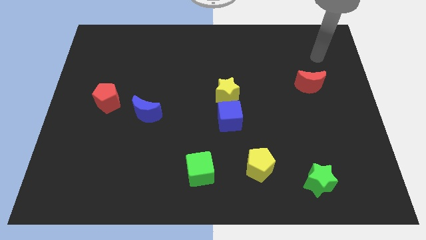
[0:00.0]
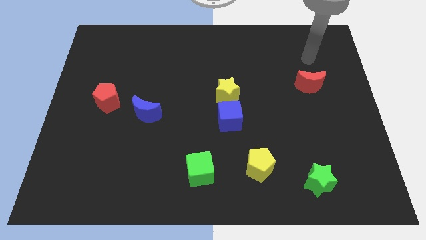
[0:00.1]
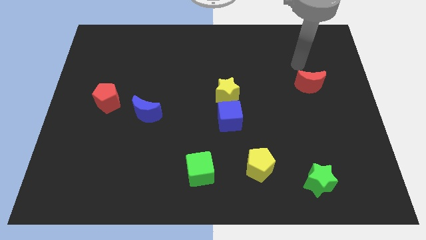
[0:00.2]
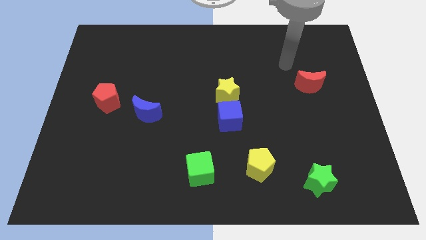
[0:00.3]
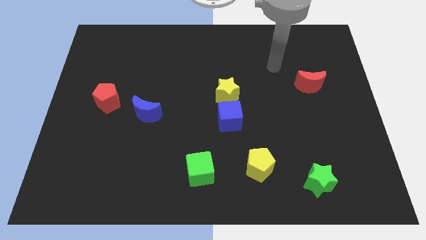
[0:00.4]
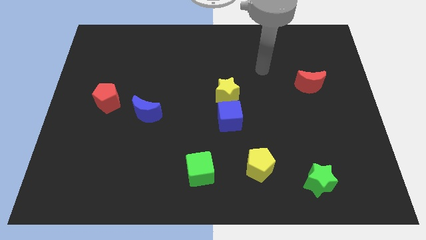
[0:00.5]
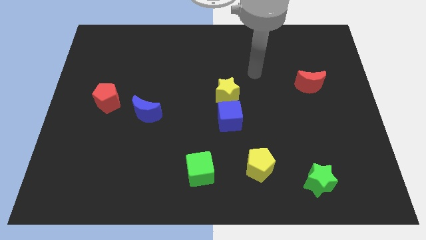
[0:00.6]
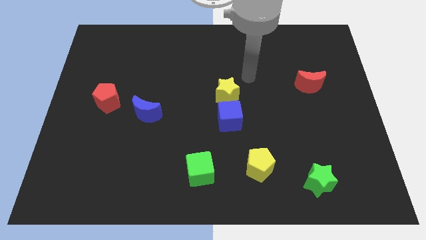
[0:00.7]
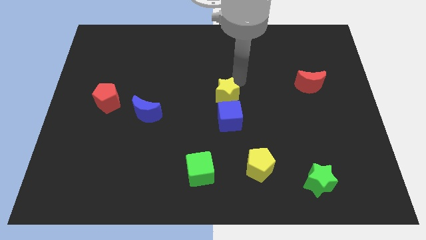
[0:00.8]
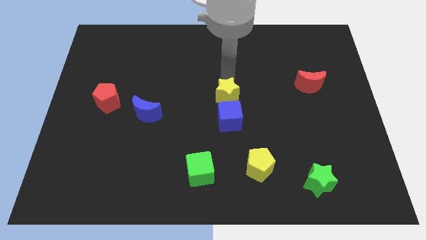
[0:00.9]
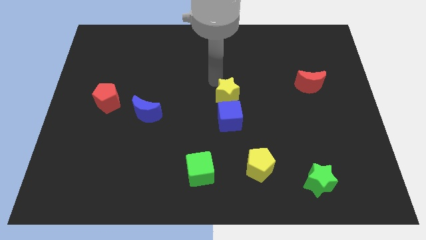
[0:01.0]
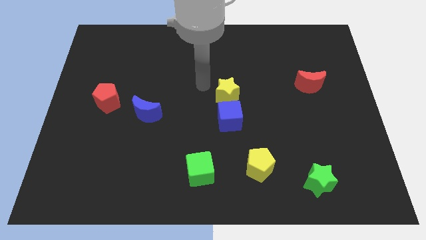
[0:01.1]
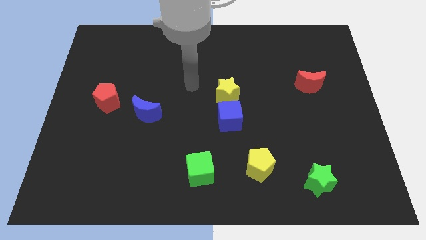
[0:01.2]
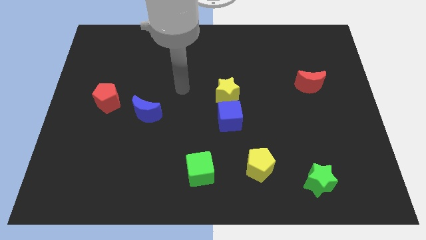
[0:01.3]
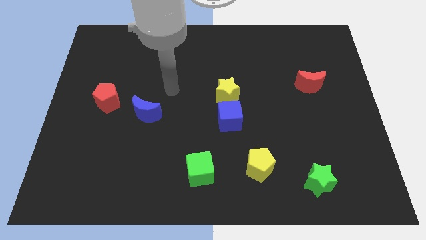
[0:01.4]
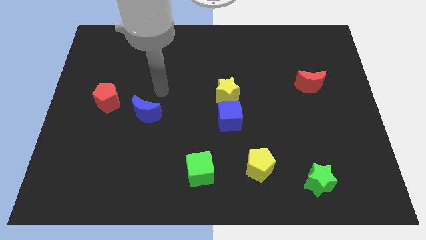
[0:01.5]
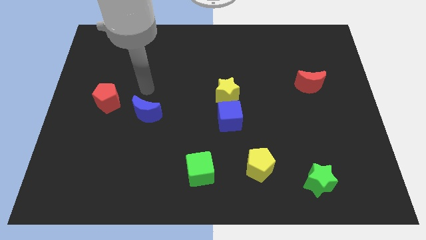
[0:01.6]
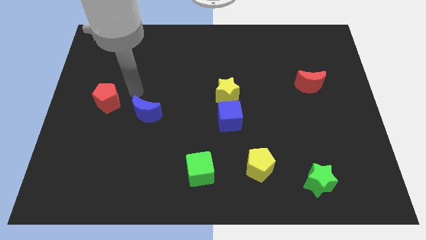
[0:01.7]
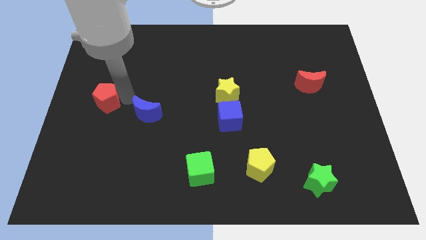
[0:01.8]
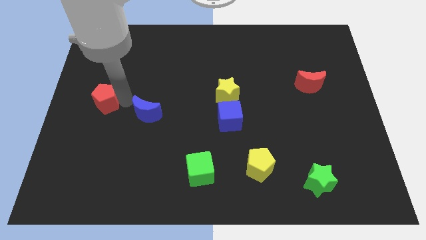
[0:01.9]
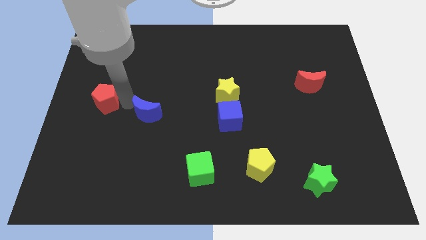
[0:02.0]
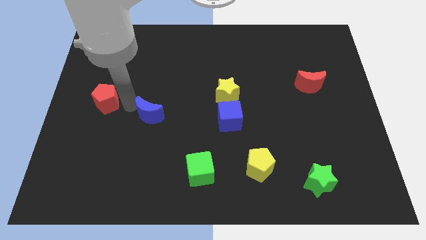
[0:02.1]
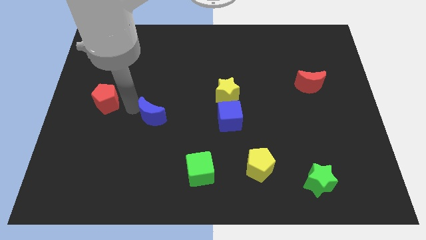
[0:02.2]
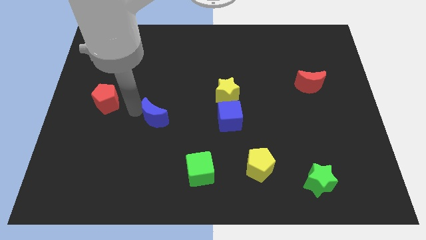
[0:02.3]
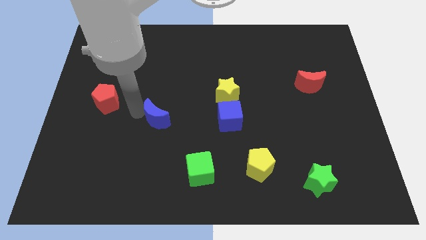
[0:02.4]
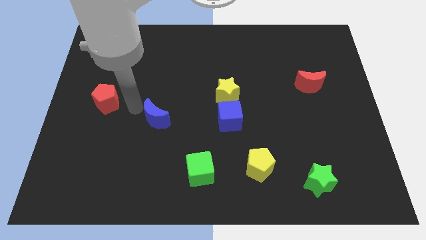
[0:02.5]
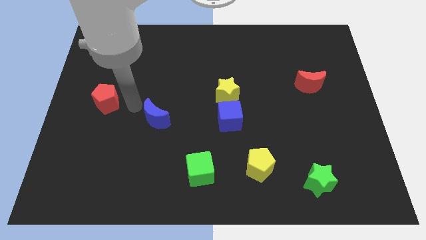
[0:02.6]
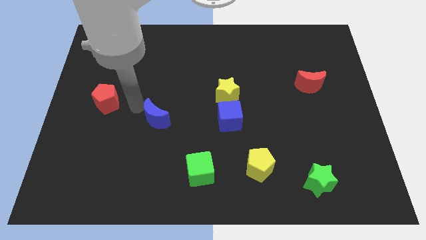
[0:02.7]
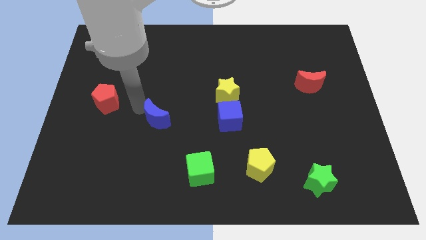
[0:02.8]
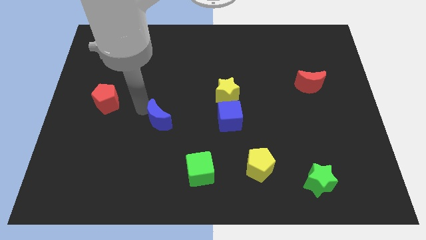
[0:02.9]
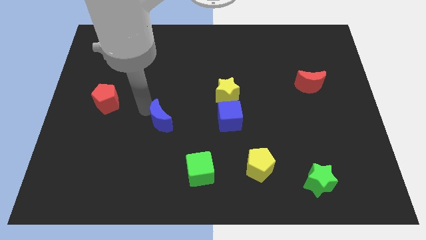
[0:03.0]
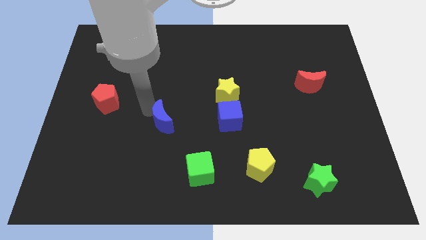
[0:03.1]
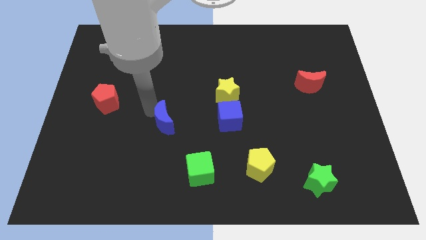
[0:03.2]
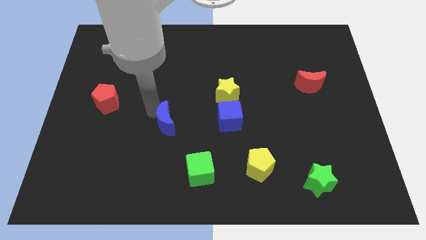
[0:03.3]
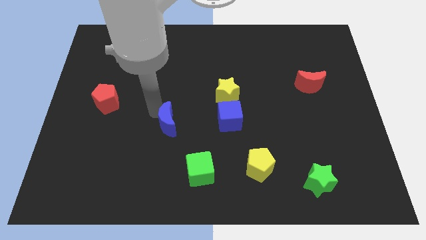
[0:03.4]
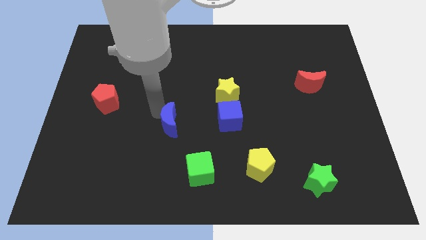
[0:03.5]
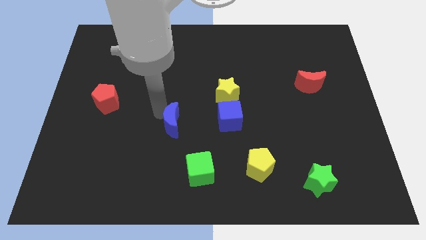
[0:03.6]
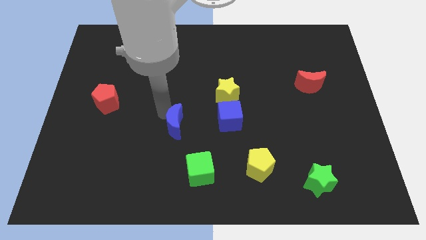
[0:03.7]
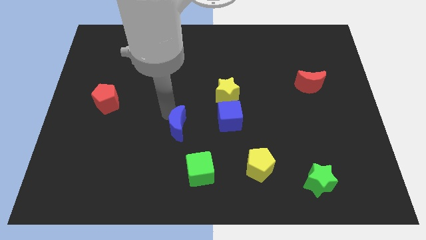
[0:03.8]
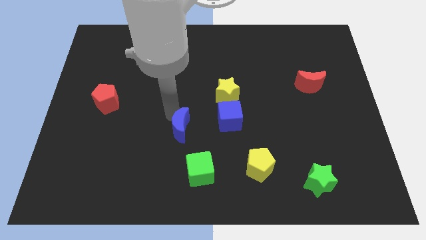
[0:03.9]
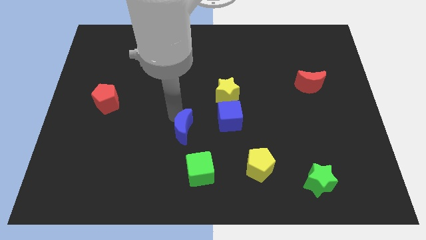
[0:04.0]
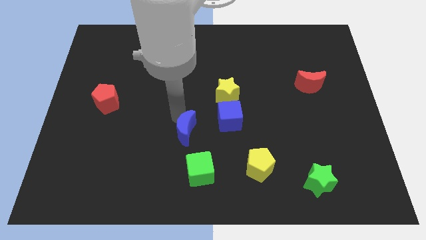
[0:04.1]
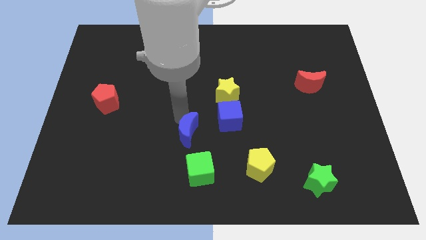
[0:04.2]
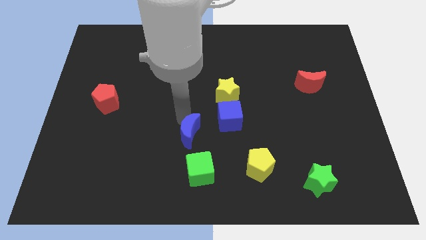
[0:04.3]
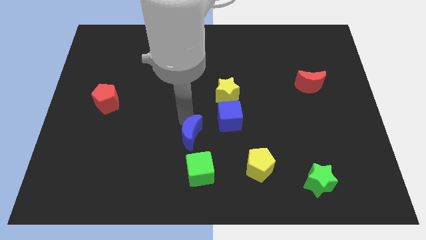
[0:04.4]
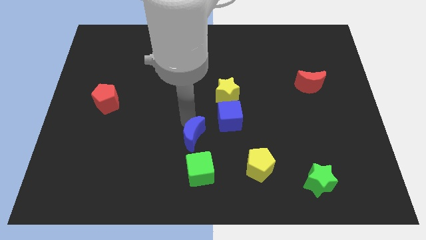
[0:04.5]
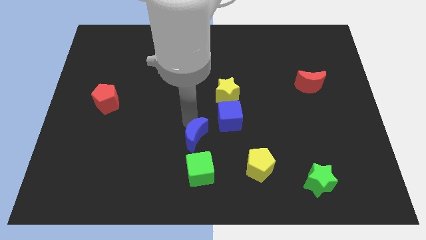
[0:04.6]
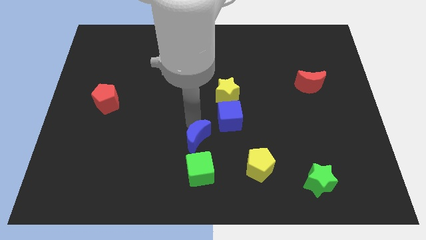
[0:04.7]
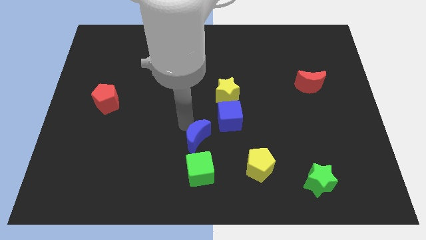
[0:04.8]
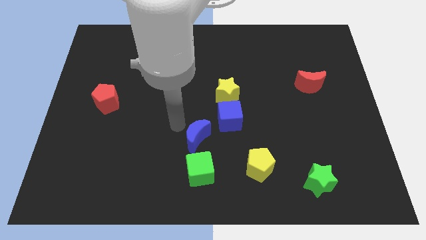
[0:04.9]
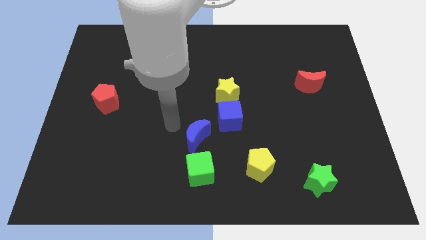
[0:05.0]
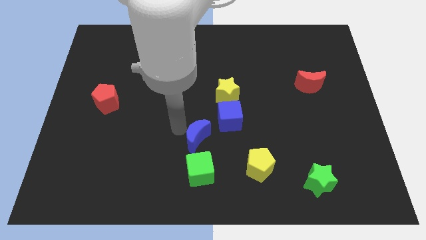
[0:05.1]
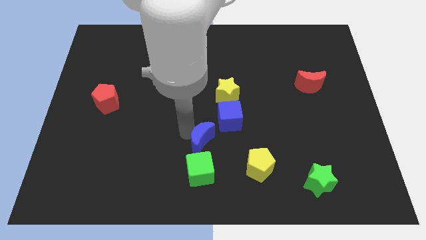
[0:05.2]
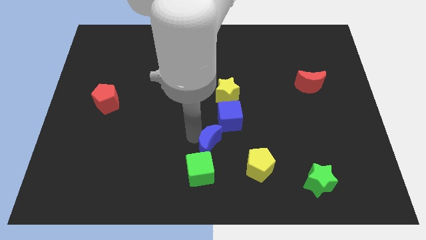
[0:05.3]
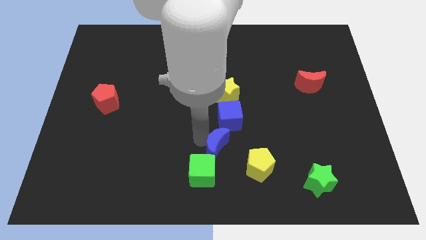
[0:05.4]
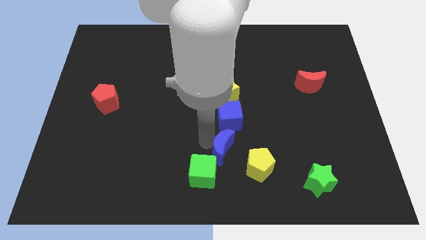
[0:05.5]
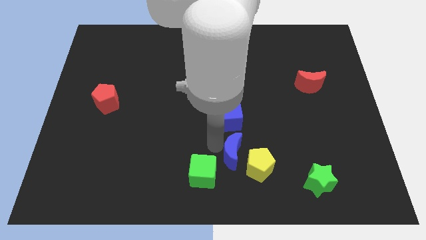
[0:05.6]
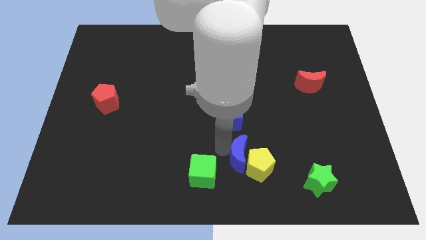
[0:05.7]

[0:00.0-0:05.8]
slide the blue moon next to the yellow pentagon
